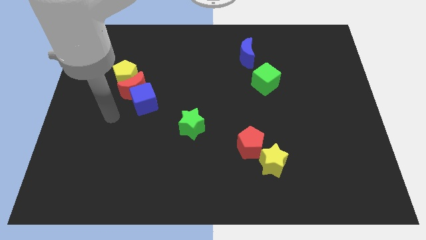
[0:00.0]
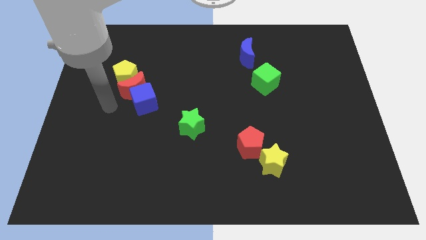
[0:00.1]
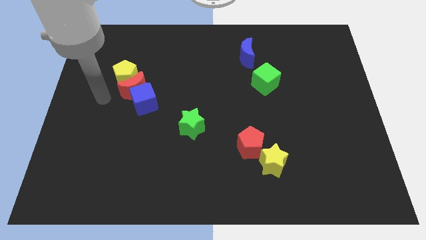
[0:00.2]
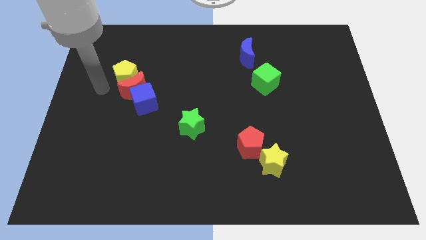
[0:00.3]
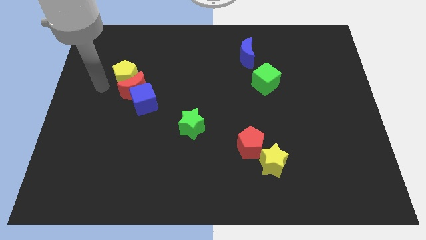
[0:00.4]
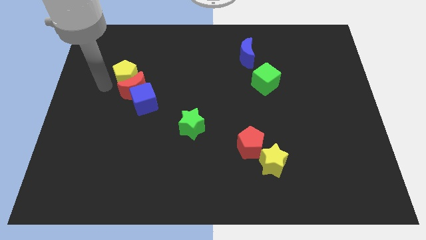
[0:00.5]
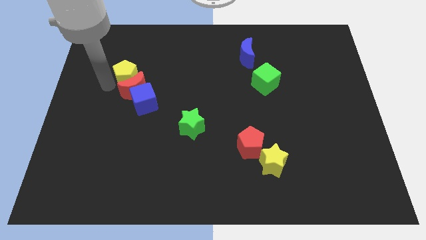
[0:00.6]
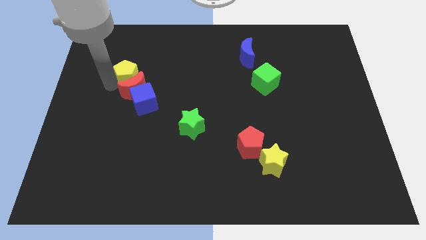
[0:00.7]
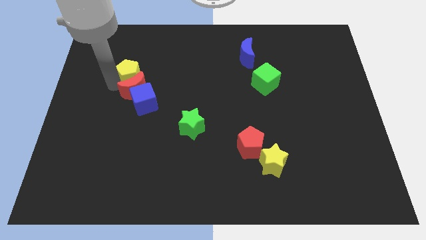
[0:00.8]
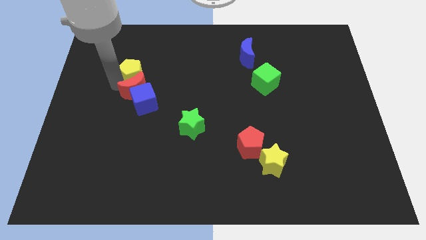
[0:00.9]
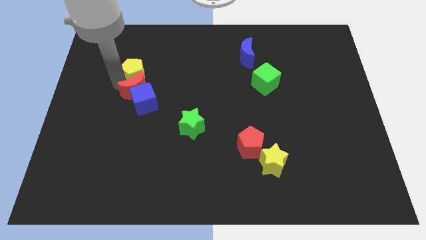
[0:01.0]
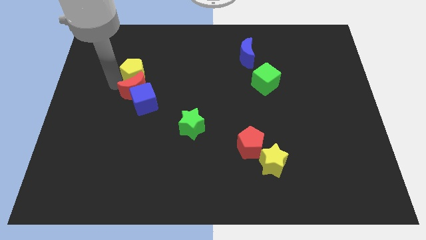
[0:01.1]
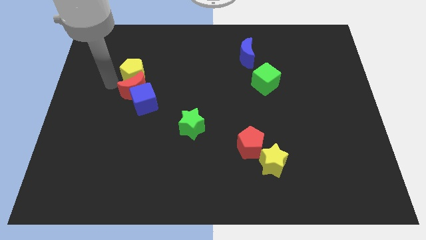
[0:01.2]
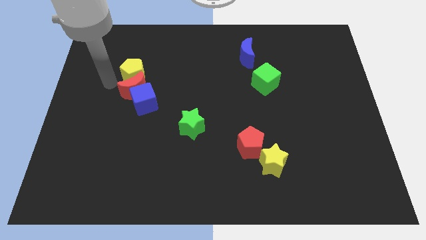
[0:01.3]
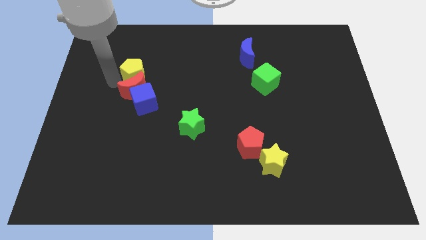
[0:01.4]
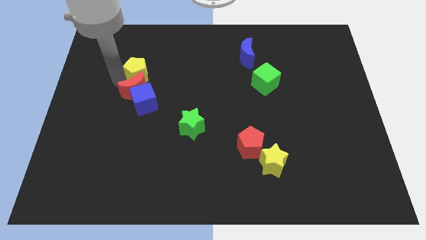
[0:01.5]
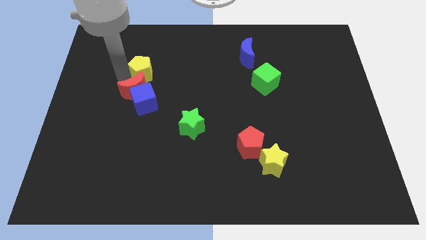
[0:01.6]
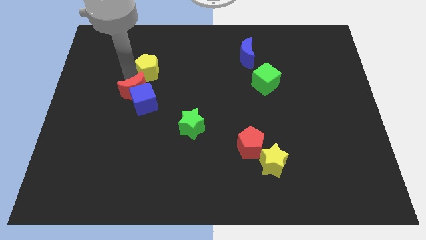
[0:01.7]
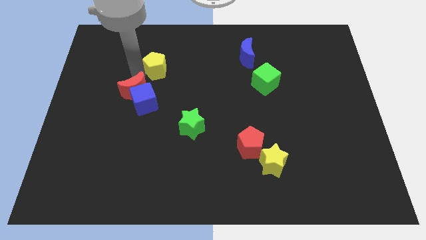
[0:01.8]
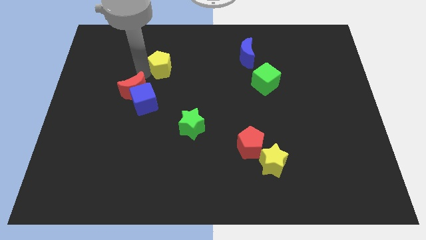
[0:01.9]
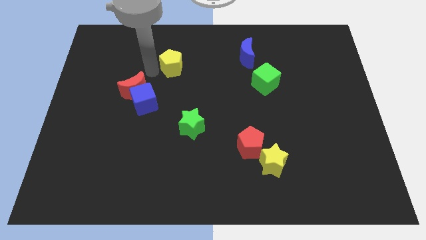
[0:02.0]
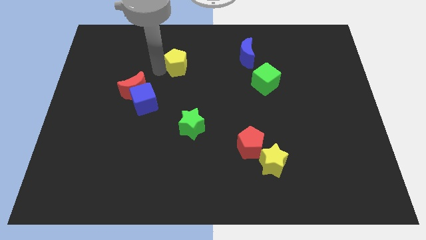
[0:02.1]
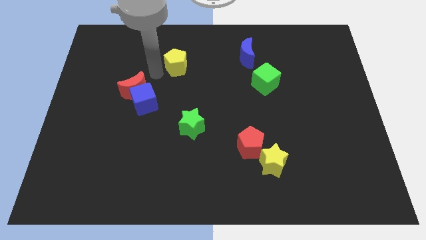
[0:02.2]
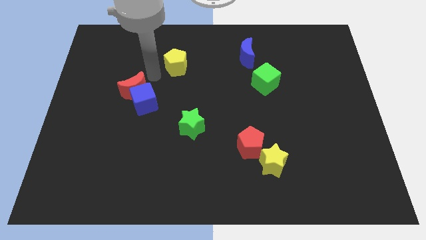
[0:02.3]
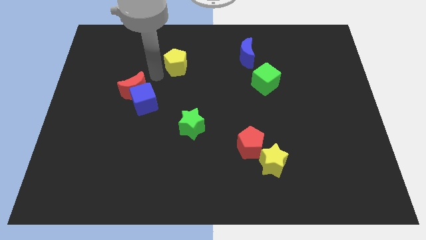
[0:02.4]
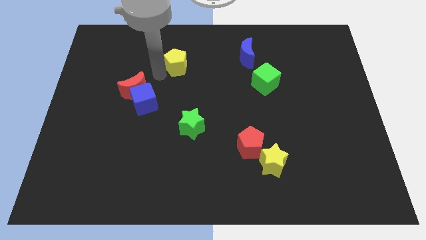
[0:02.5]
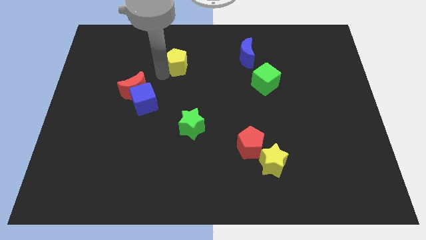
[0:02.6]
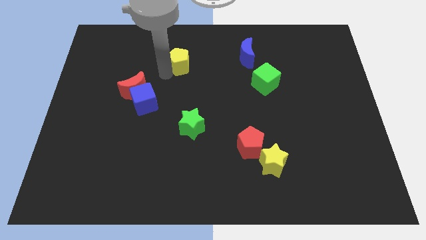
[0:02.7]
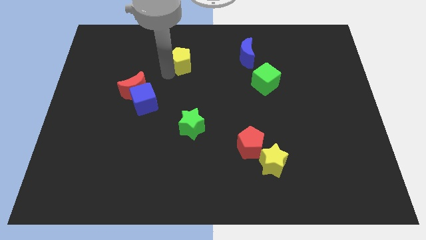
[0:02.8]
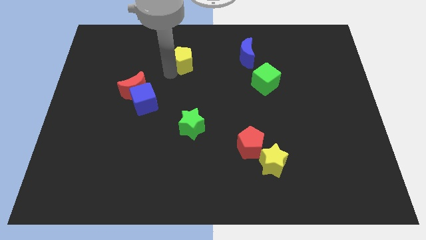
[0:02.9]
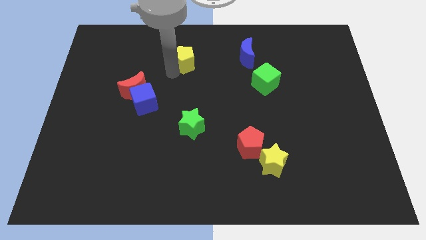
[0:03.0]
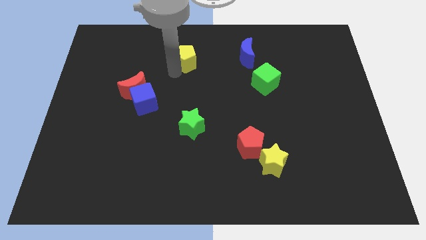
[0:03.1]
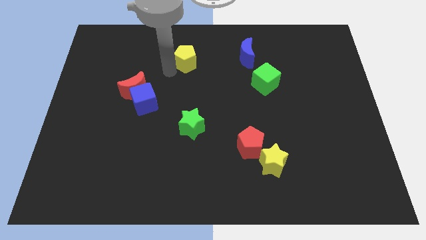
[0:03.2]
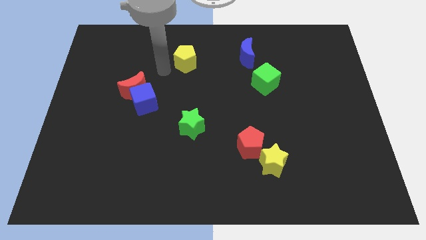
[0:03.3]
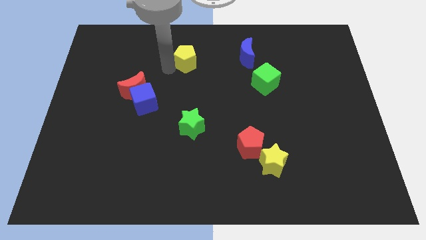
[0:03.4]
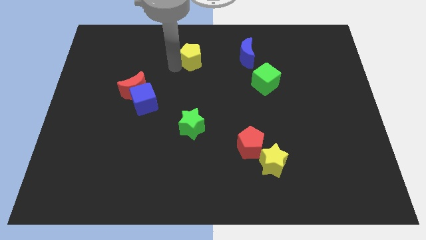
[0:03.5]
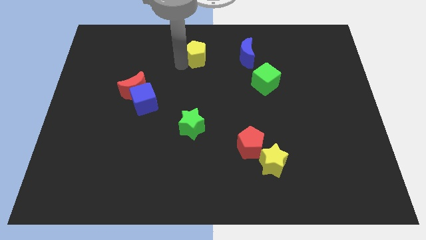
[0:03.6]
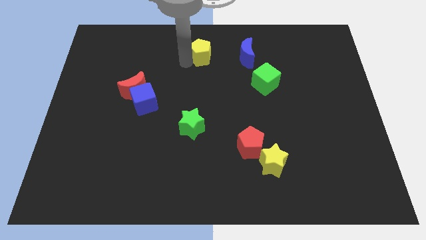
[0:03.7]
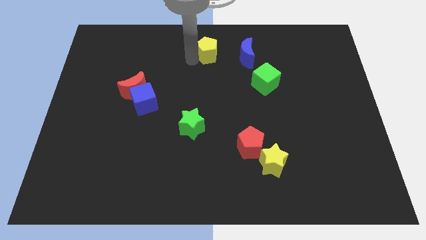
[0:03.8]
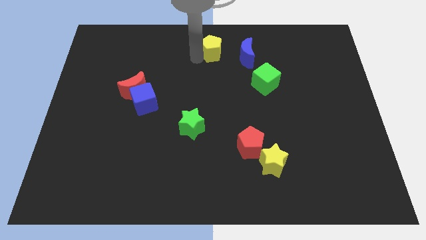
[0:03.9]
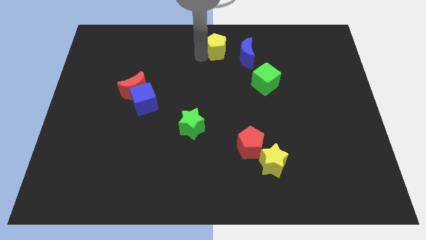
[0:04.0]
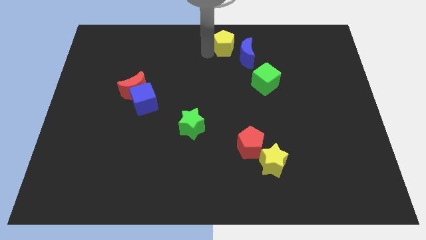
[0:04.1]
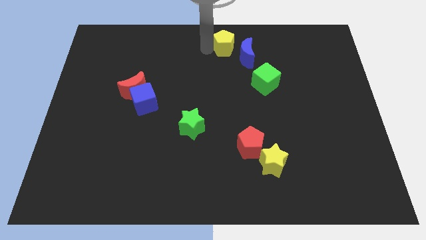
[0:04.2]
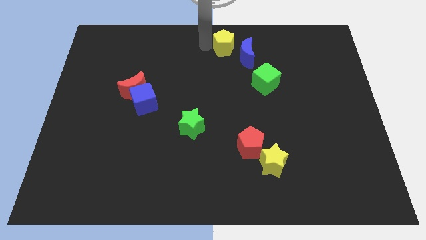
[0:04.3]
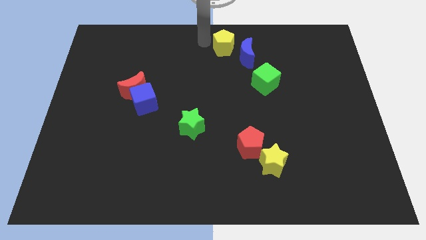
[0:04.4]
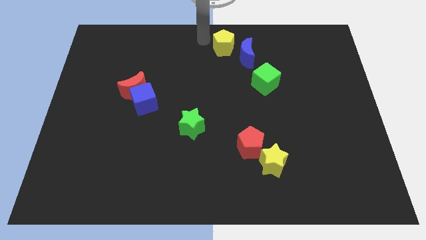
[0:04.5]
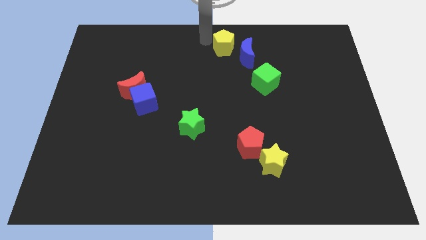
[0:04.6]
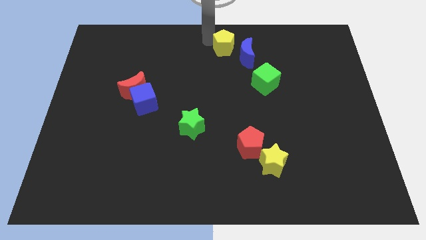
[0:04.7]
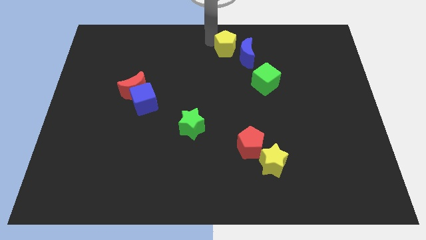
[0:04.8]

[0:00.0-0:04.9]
slide the yellow pentagon to the blue moon

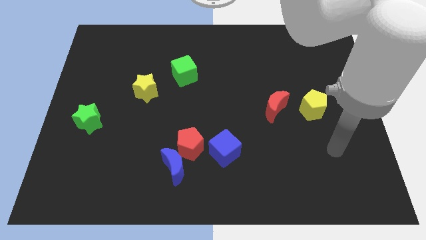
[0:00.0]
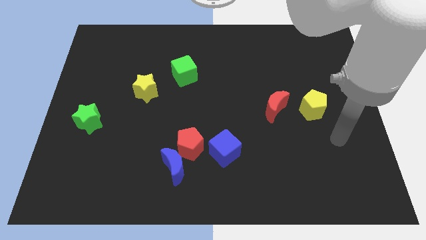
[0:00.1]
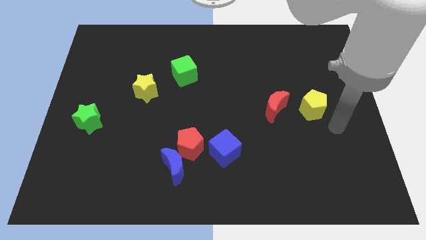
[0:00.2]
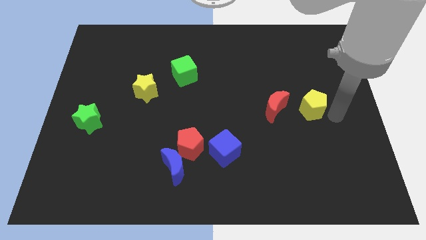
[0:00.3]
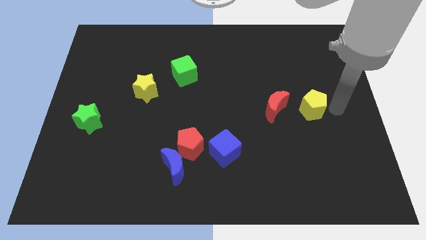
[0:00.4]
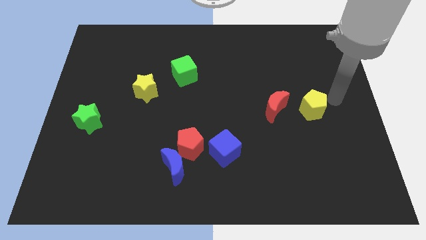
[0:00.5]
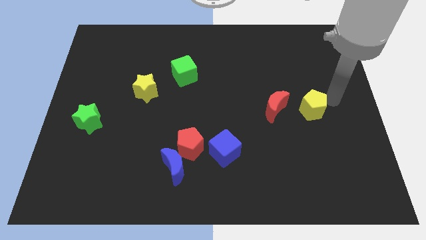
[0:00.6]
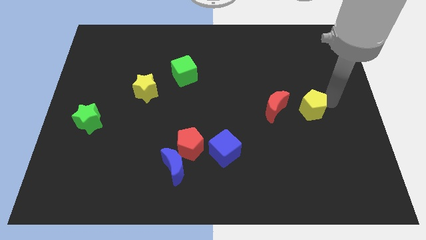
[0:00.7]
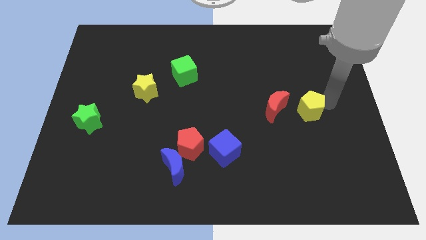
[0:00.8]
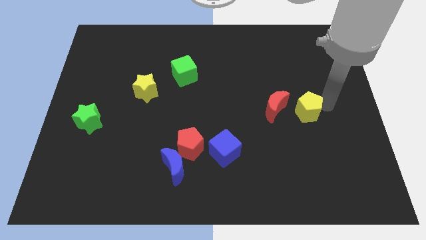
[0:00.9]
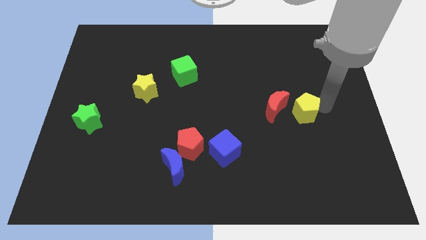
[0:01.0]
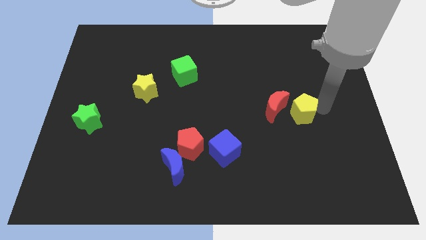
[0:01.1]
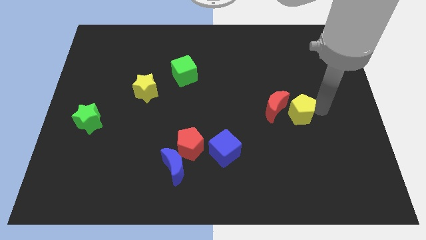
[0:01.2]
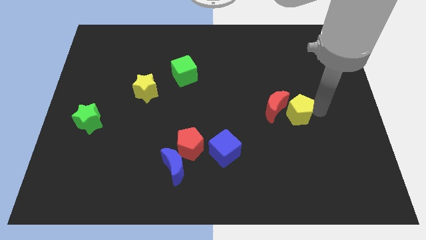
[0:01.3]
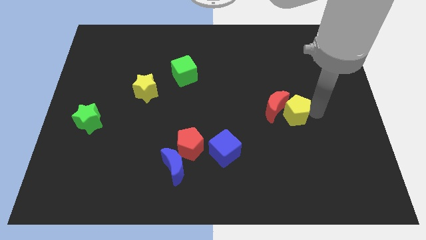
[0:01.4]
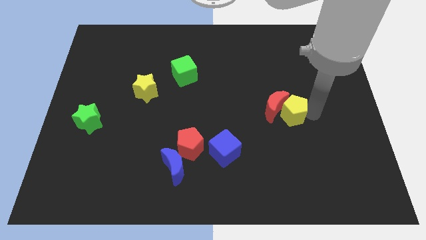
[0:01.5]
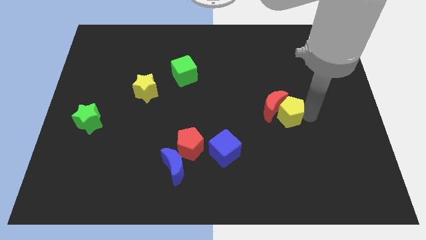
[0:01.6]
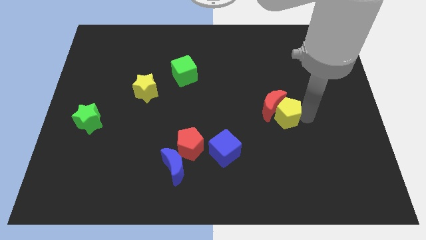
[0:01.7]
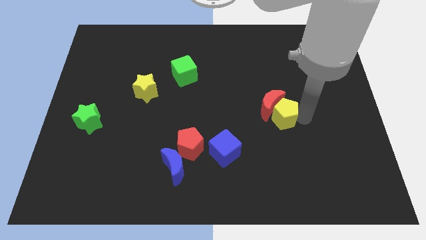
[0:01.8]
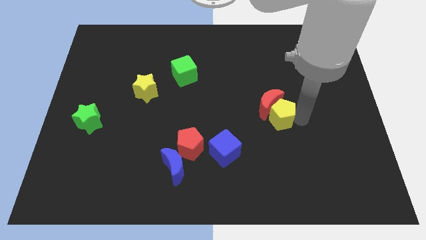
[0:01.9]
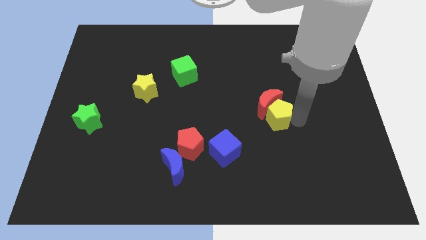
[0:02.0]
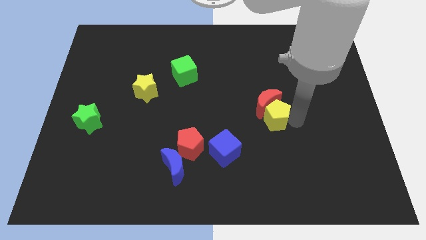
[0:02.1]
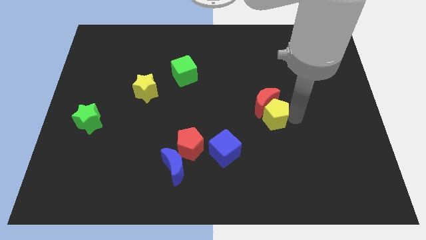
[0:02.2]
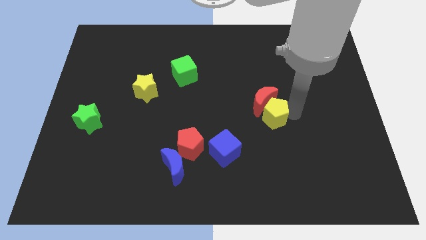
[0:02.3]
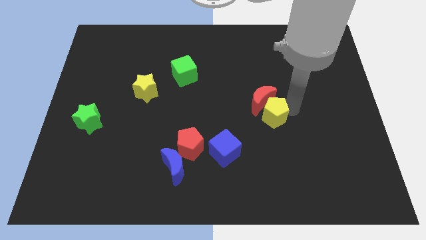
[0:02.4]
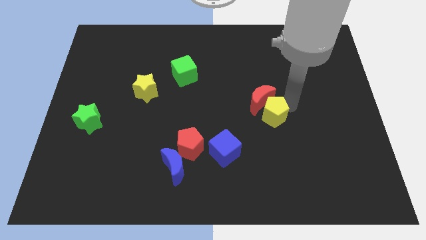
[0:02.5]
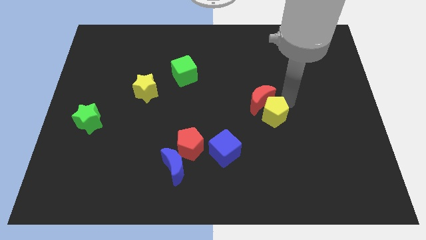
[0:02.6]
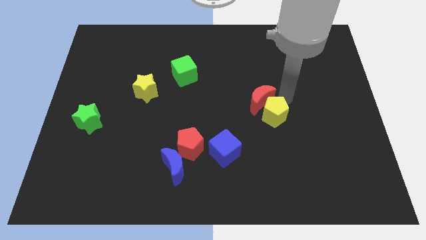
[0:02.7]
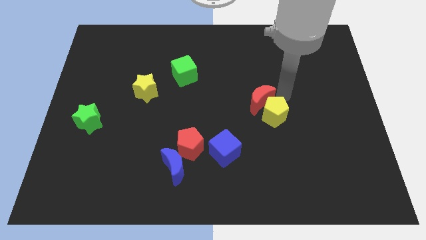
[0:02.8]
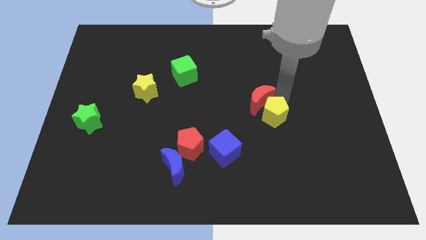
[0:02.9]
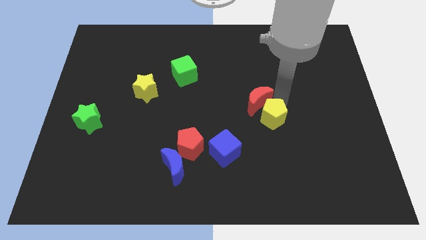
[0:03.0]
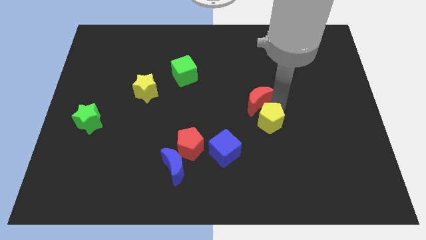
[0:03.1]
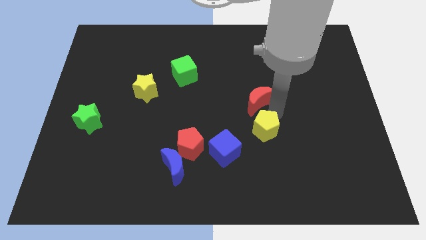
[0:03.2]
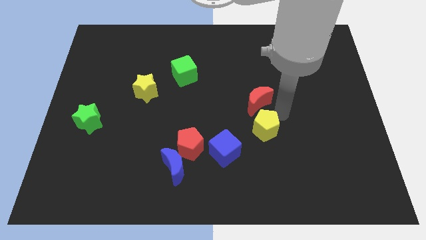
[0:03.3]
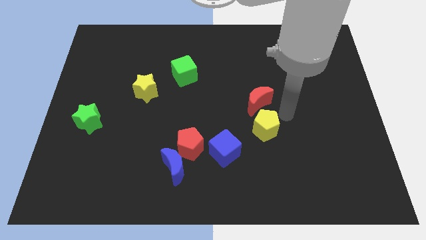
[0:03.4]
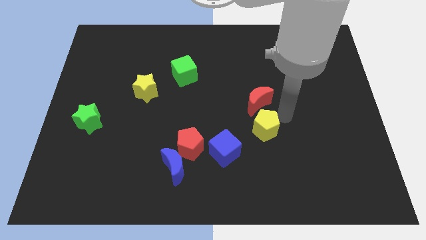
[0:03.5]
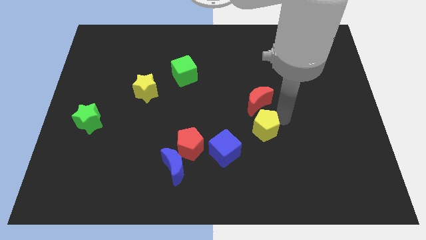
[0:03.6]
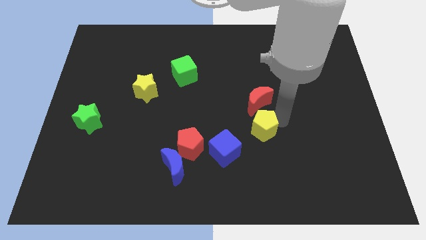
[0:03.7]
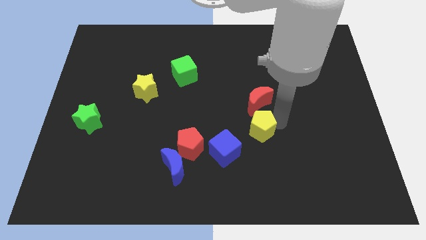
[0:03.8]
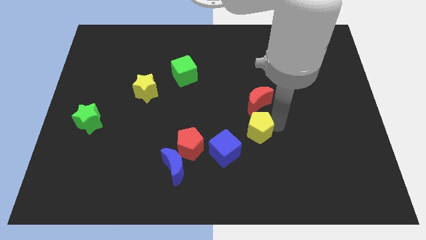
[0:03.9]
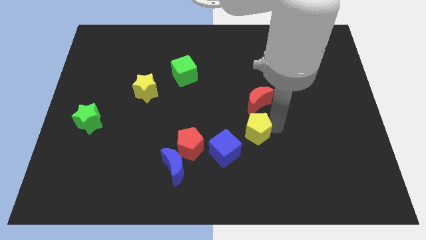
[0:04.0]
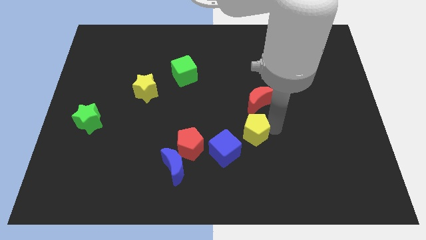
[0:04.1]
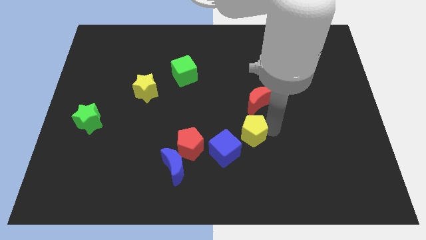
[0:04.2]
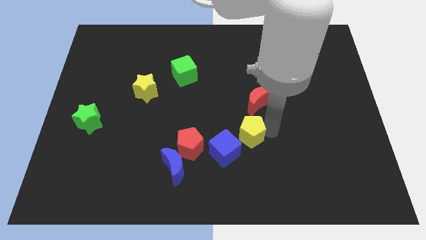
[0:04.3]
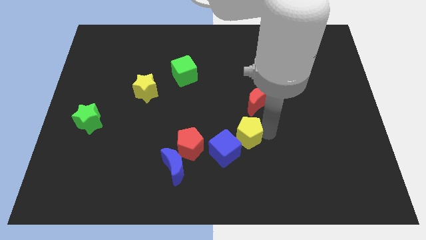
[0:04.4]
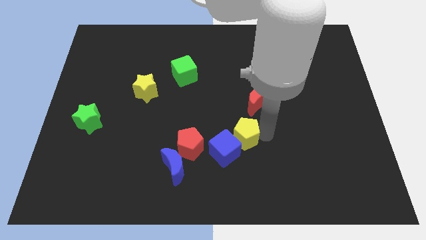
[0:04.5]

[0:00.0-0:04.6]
put the yellow pentagon close to the blue cube
